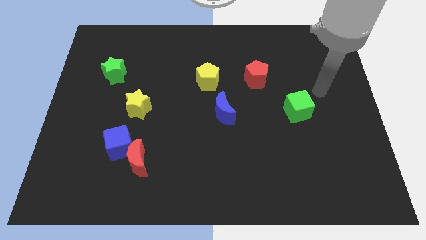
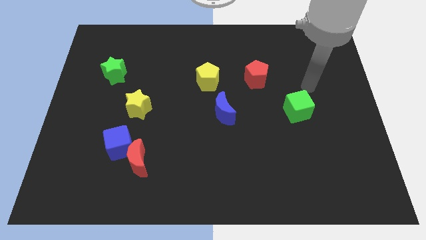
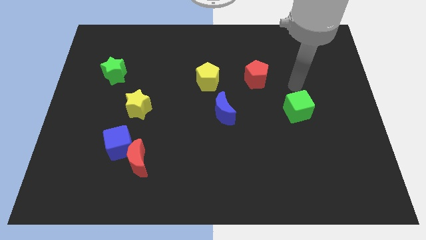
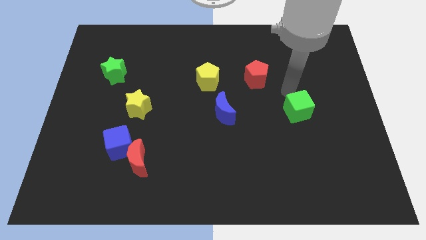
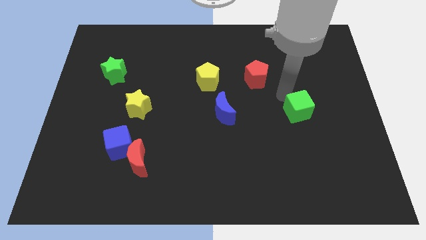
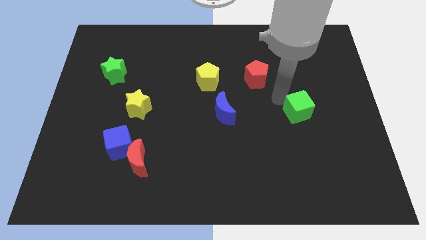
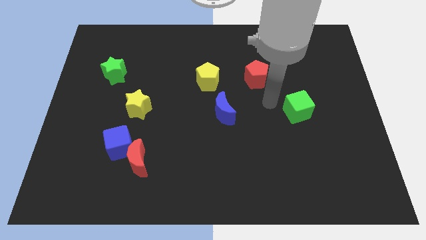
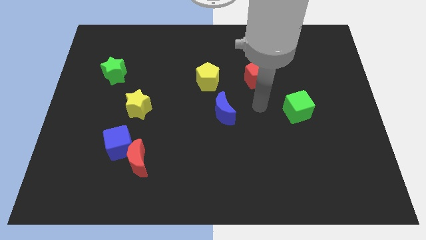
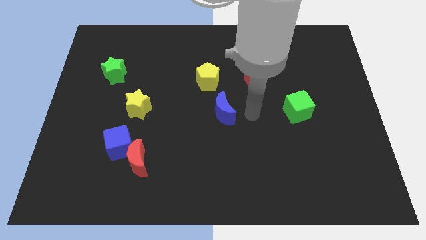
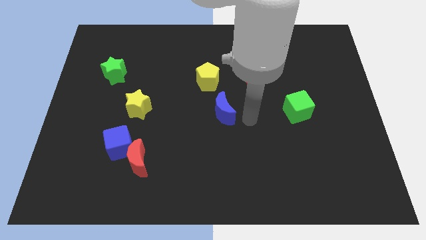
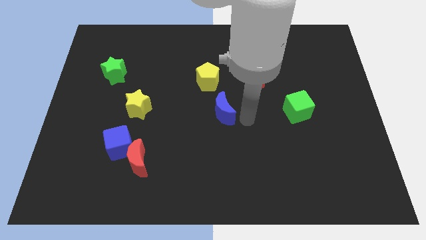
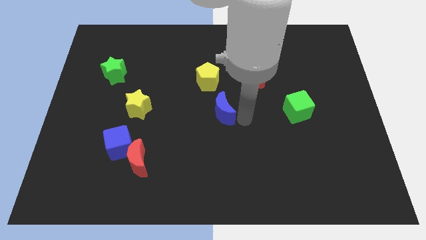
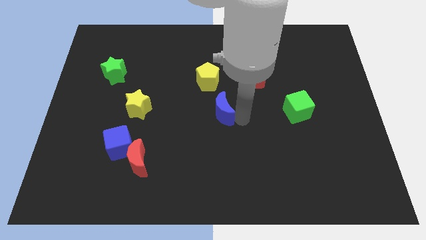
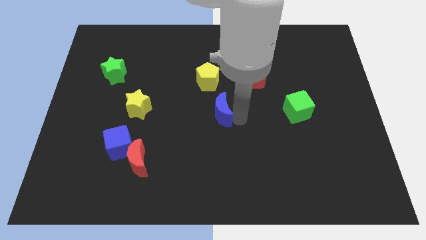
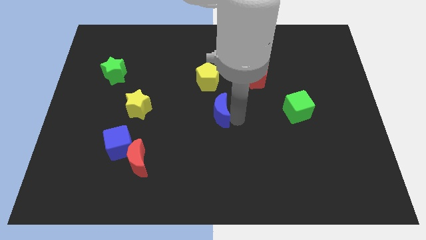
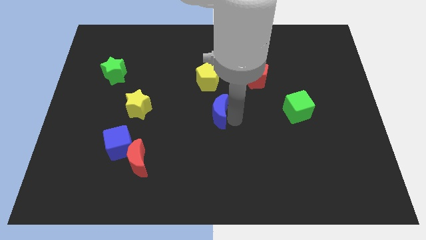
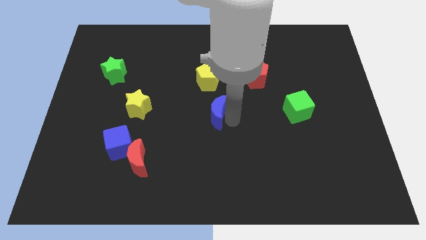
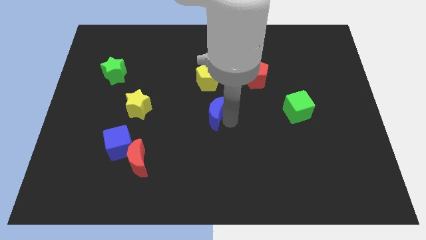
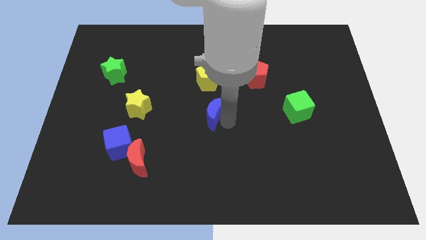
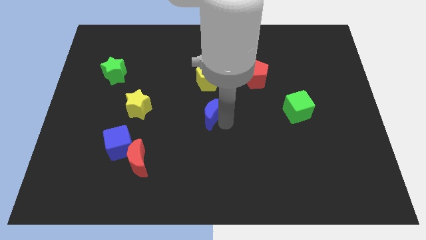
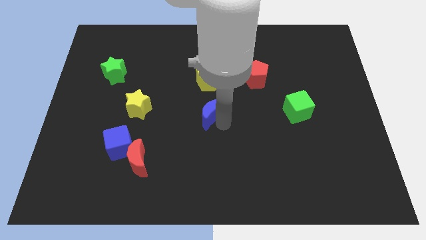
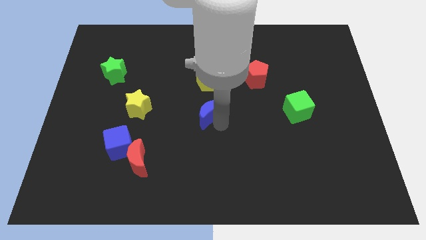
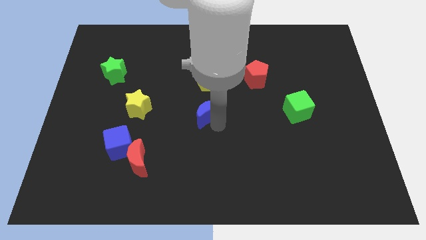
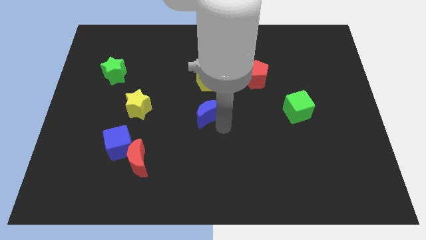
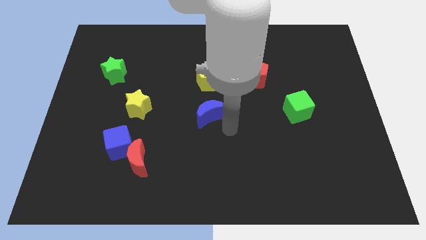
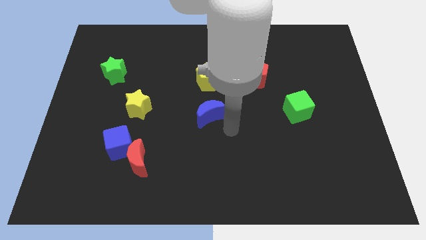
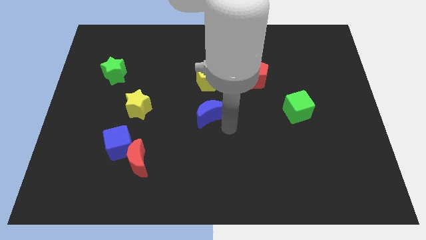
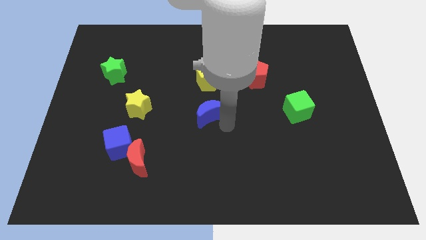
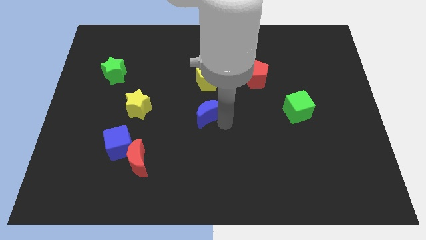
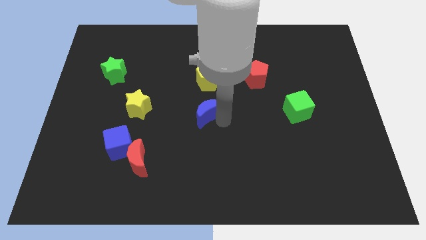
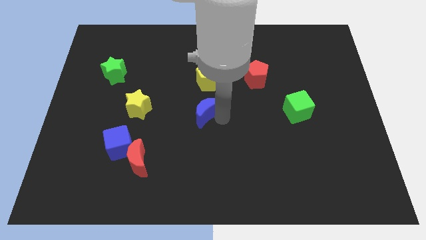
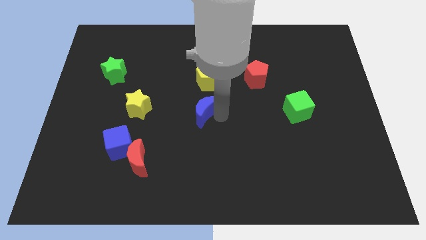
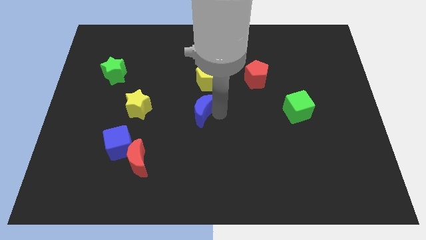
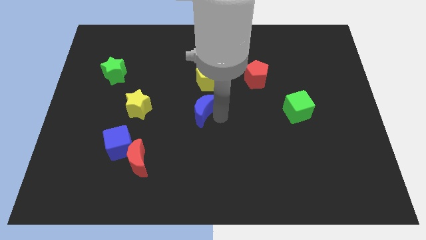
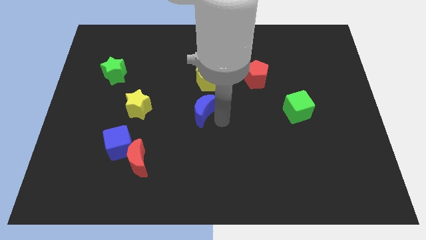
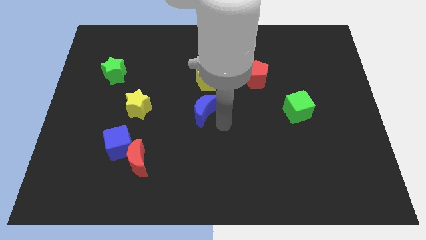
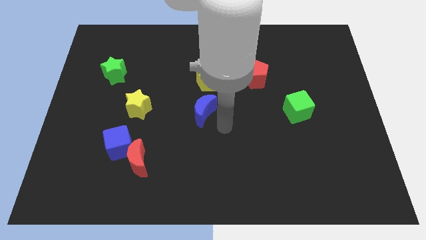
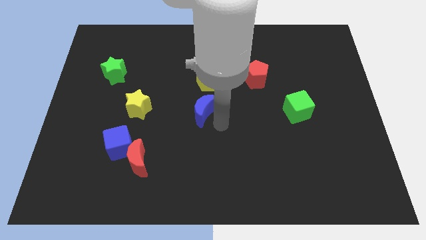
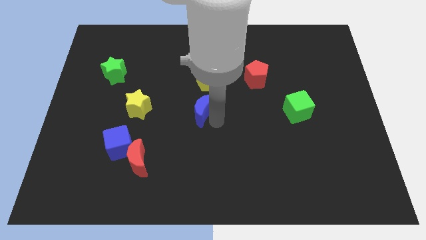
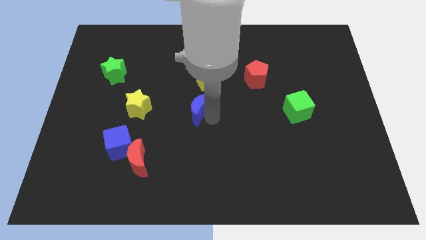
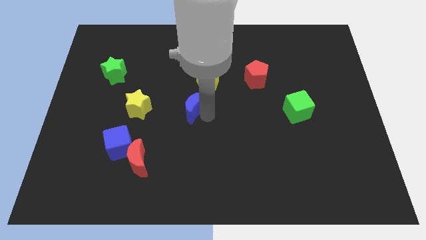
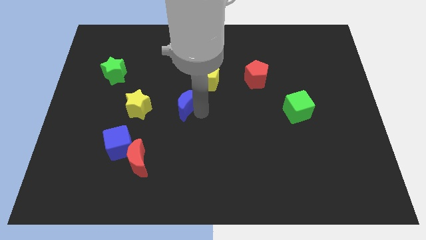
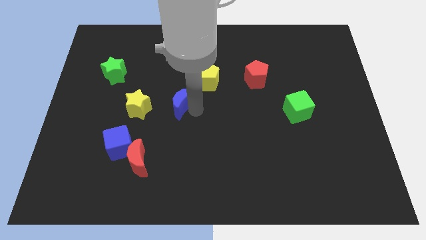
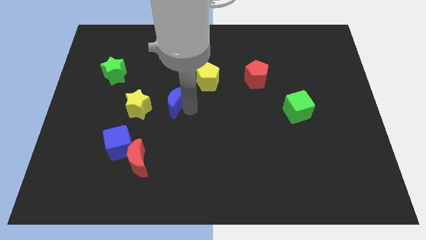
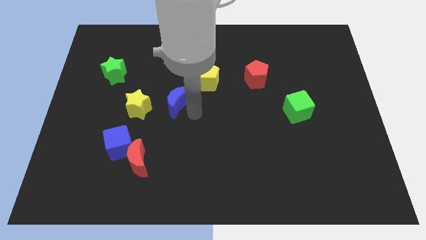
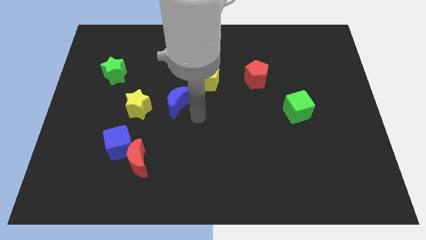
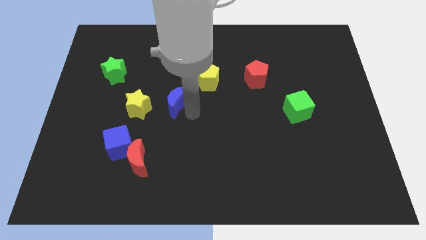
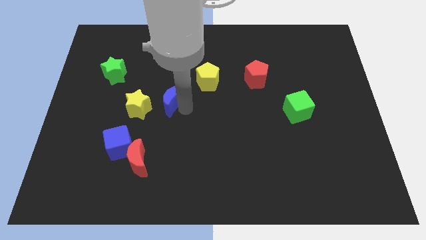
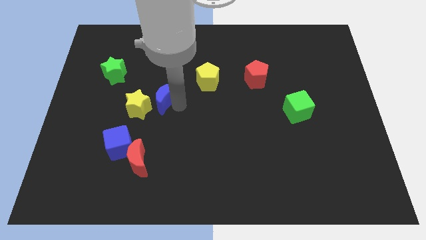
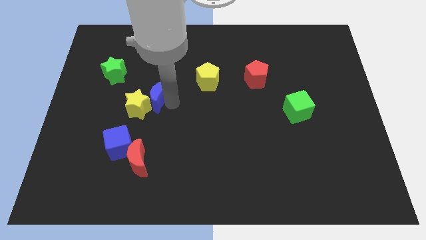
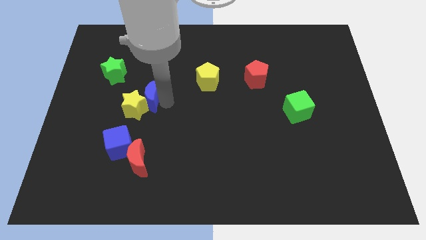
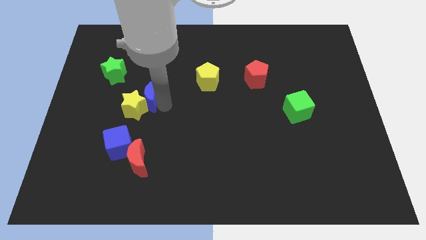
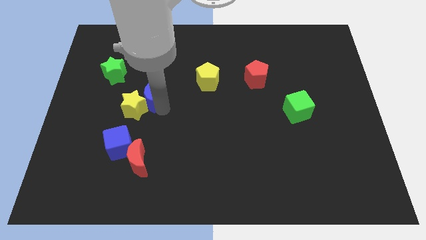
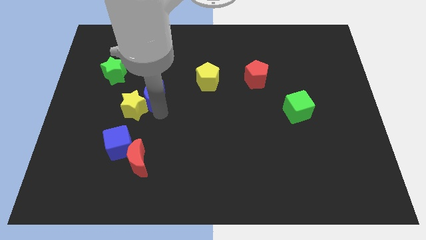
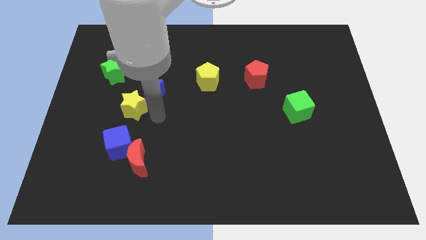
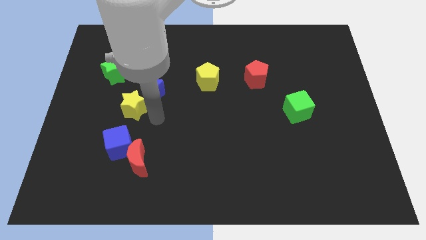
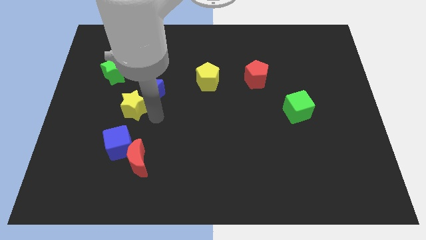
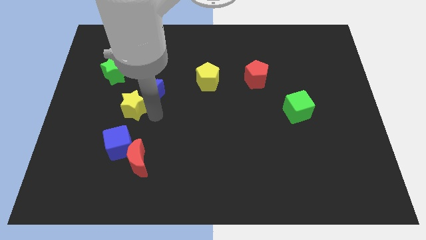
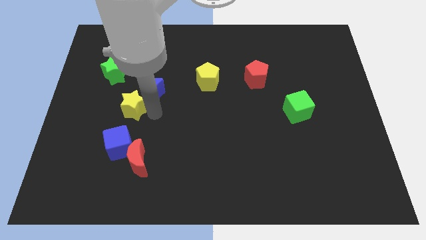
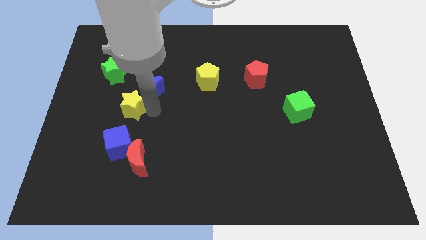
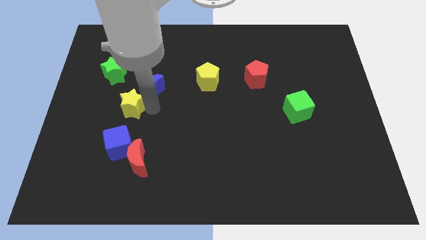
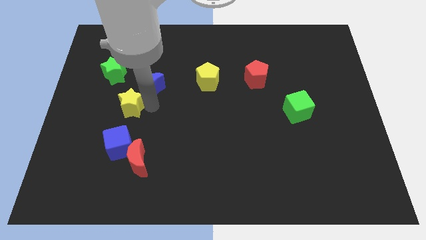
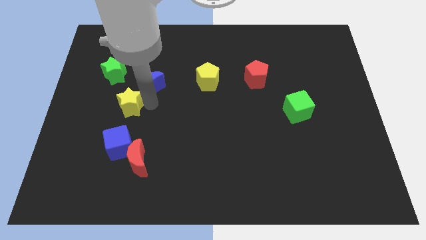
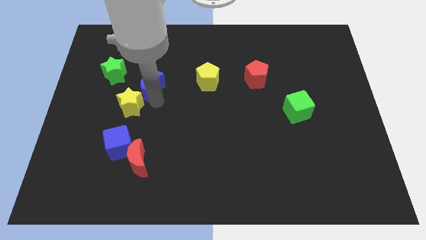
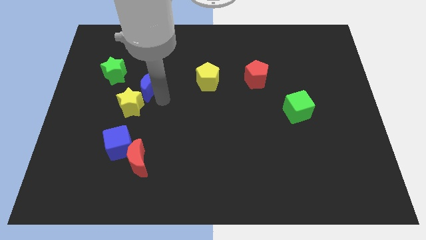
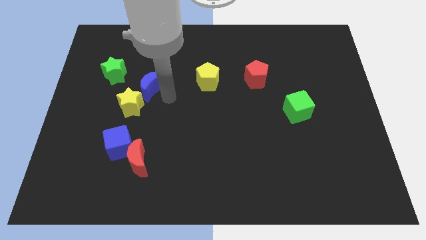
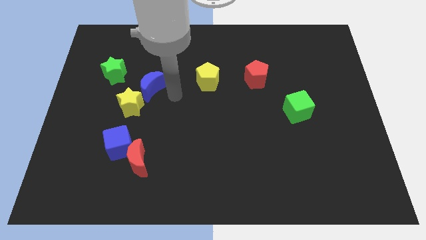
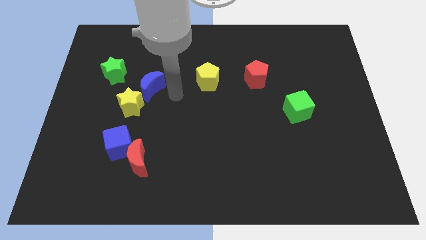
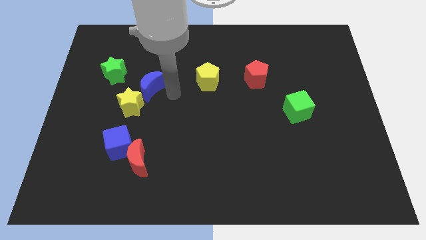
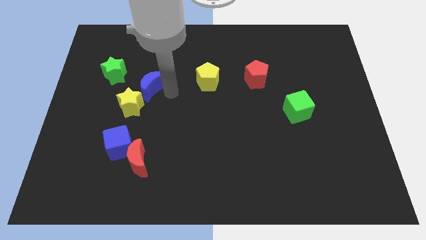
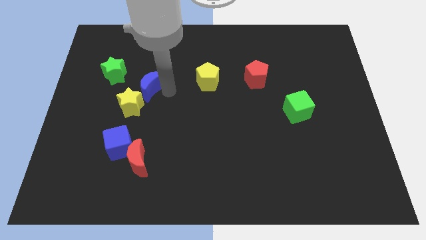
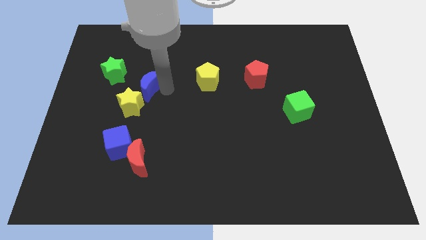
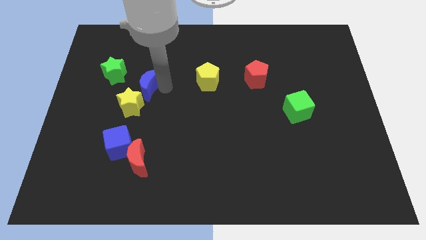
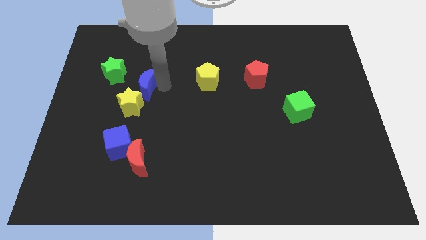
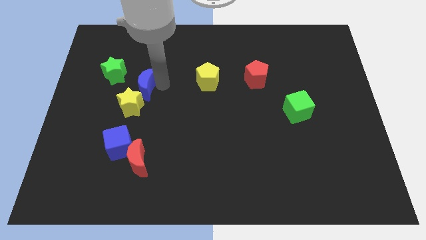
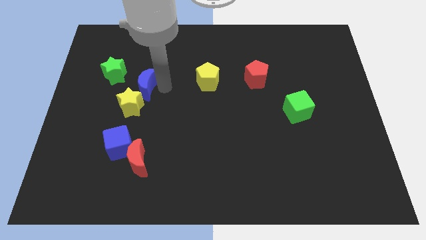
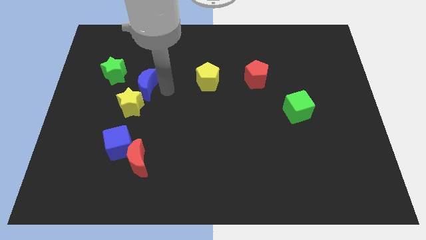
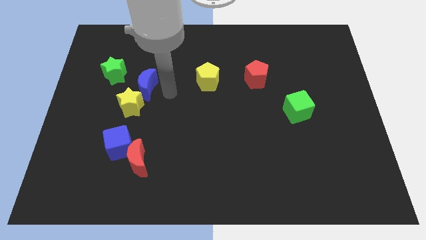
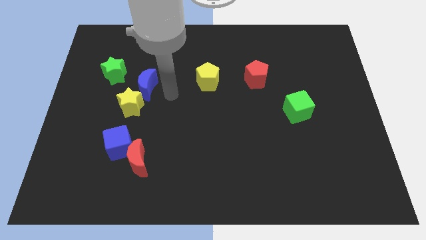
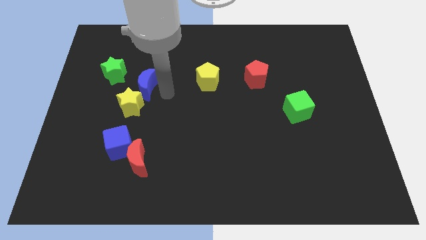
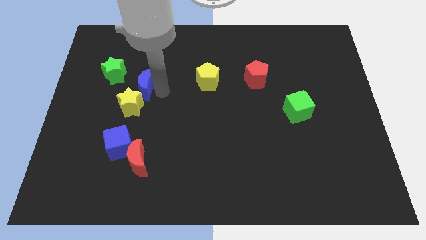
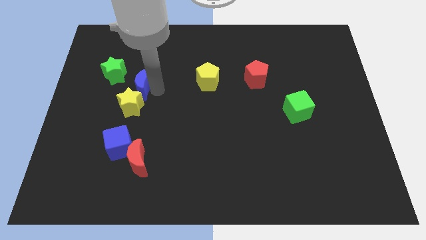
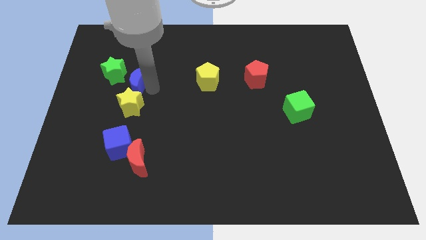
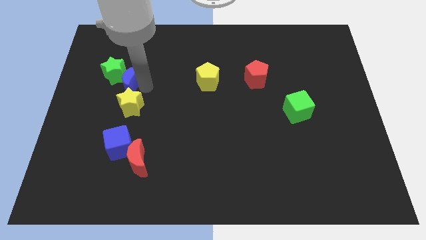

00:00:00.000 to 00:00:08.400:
slide the blue moon next to the green star
